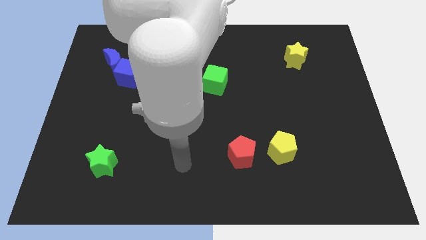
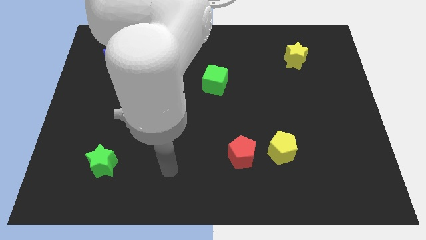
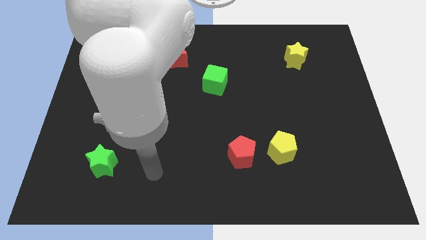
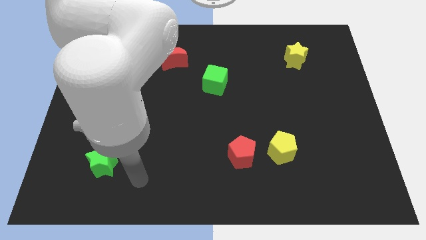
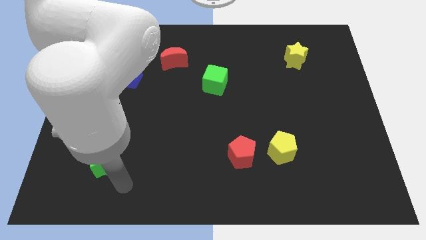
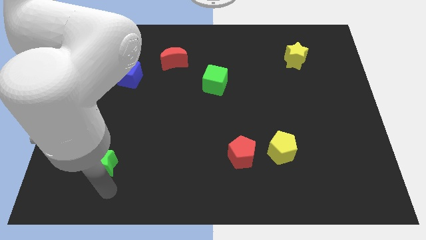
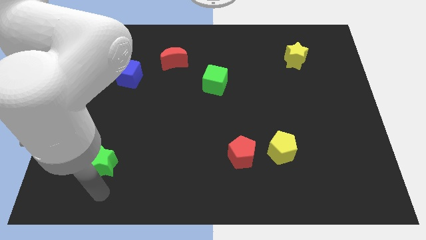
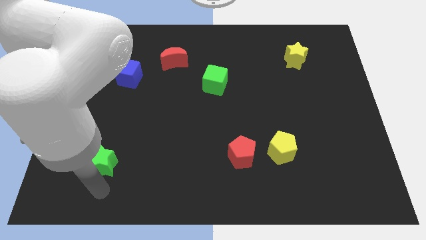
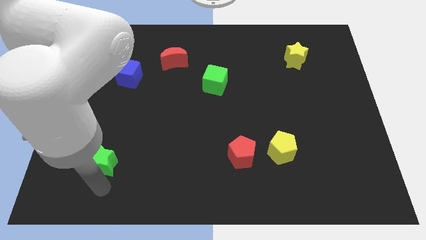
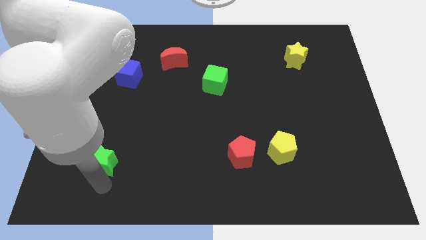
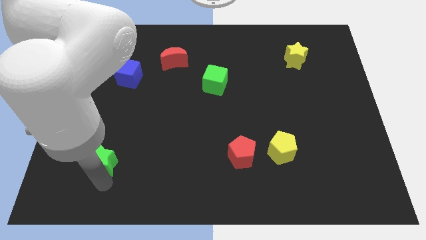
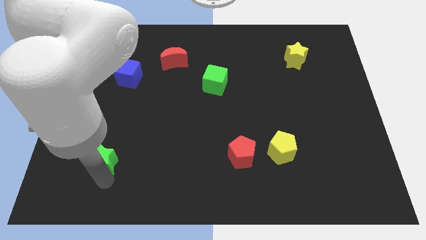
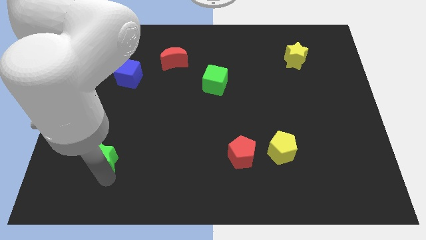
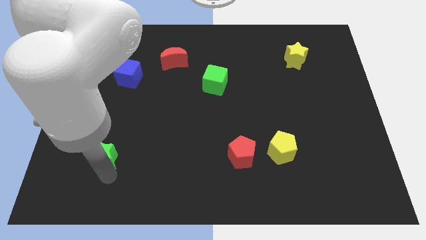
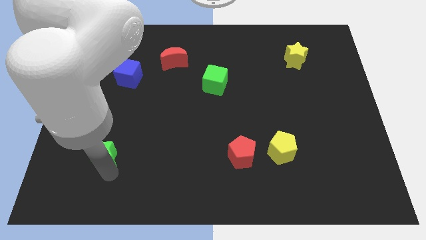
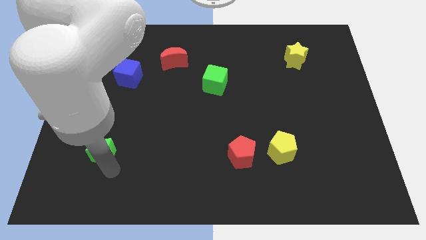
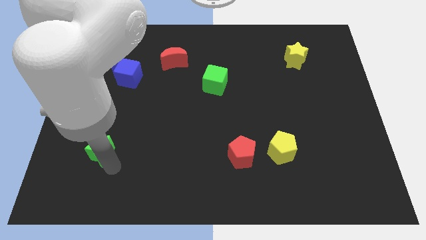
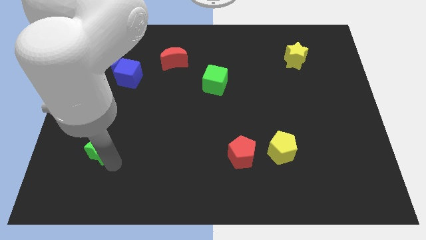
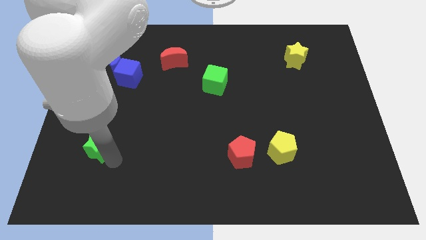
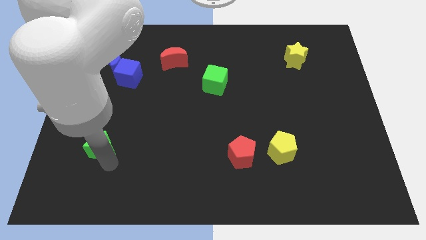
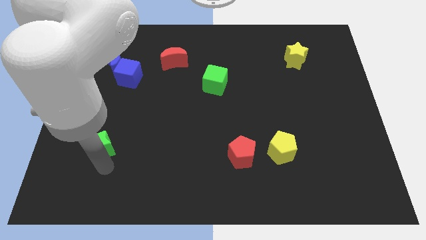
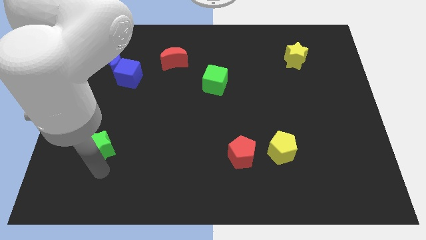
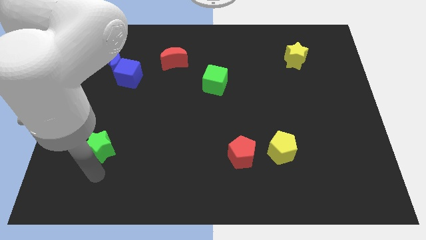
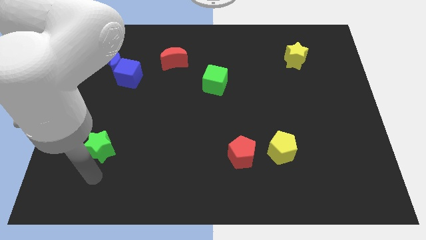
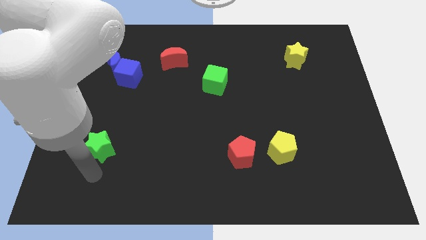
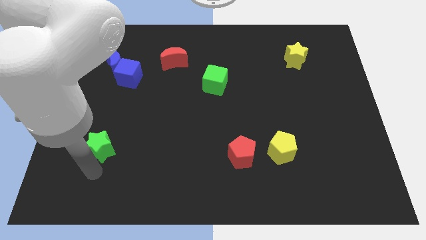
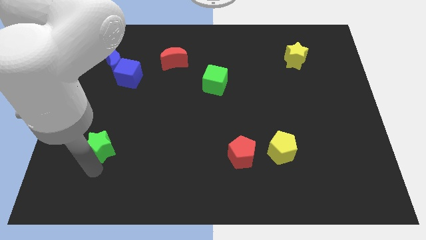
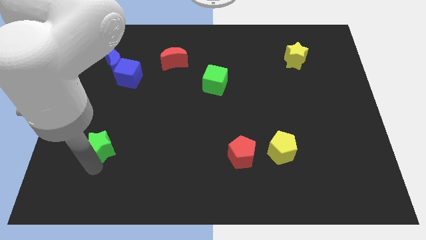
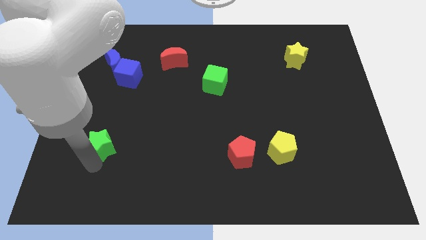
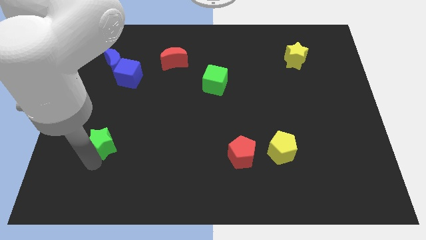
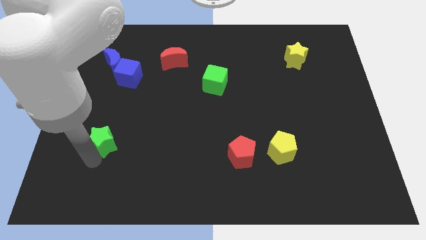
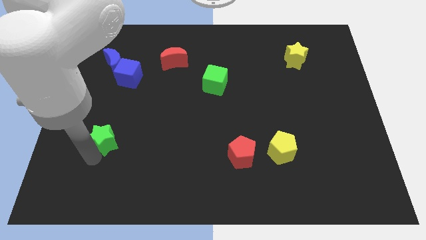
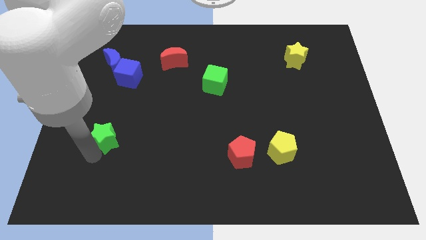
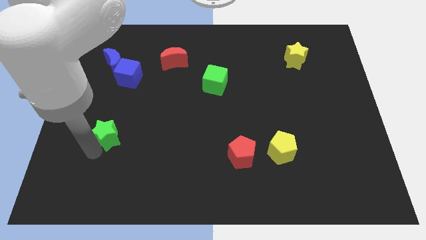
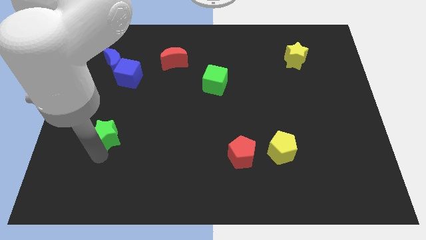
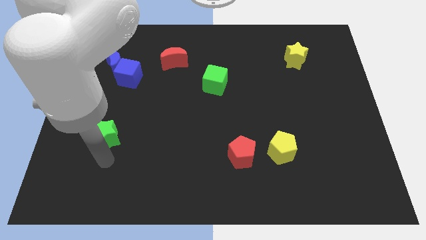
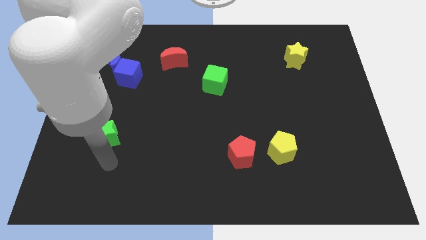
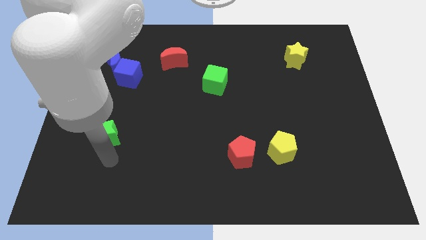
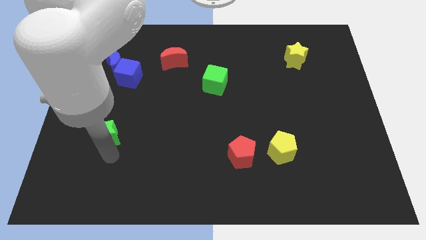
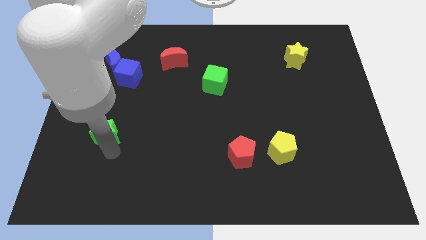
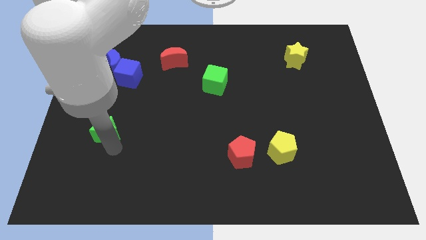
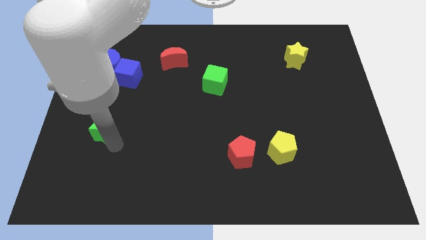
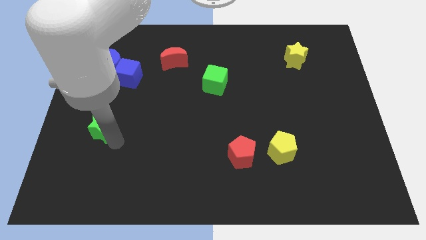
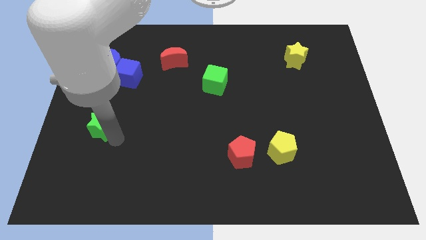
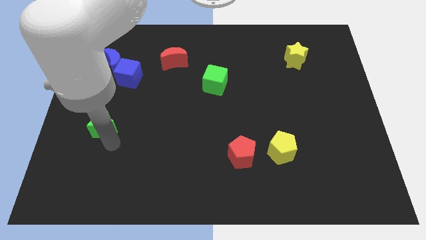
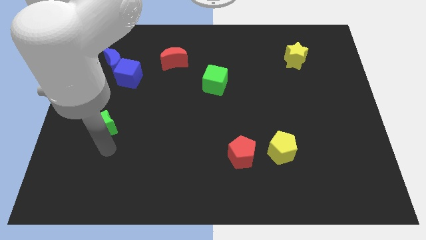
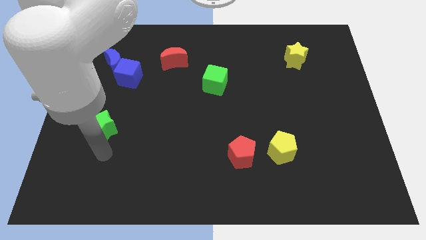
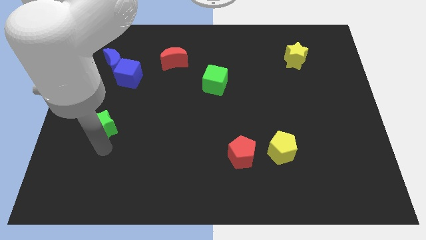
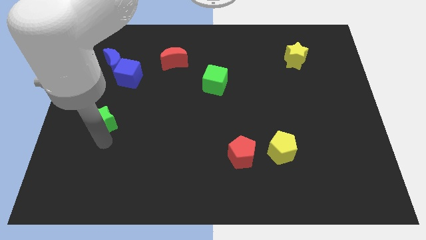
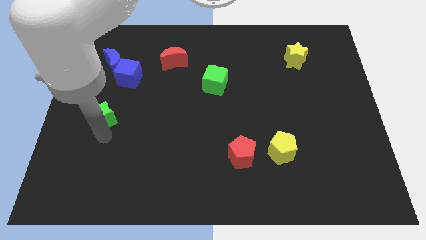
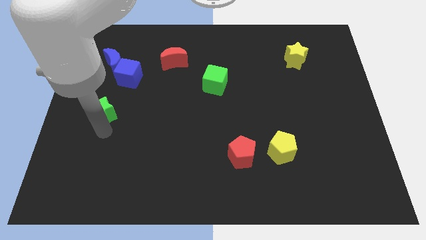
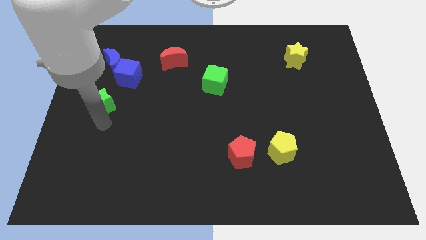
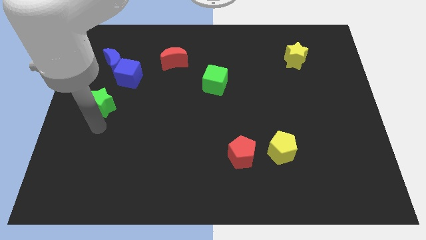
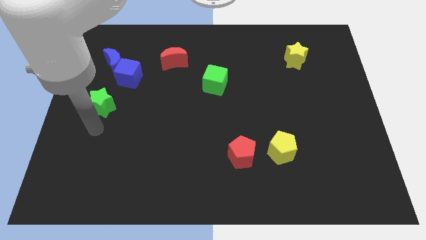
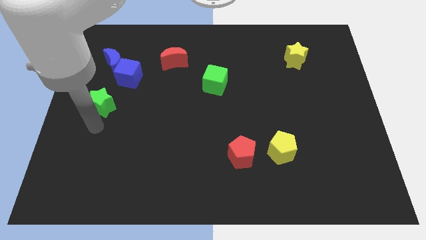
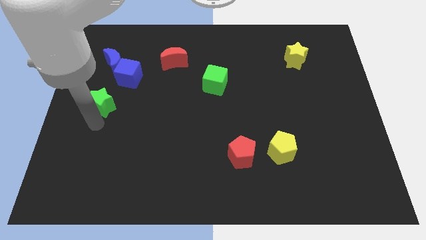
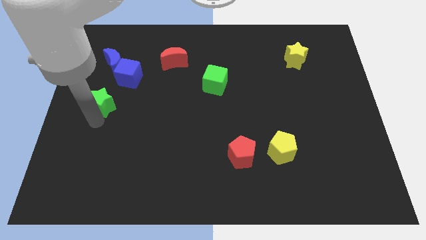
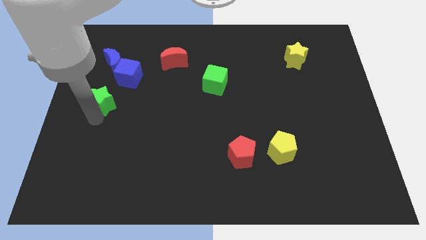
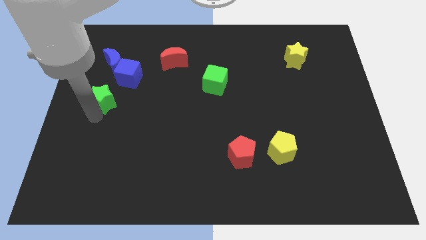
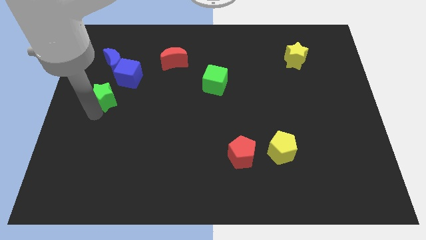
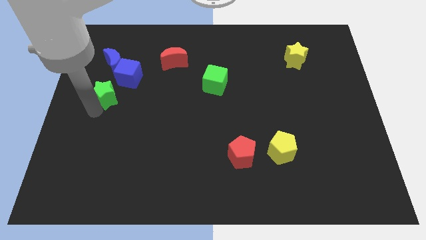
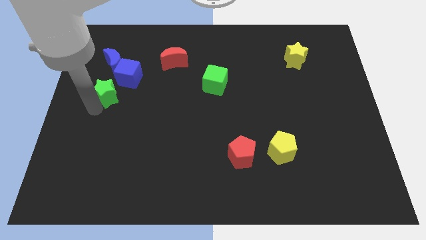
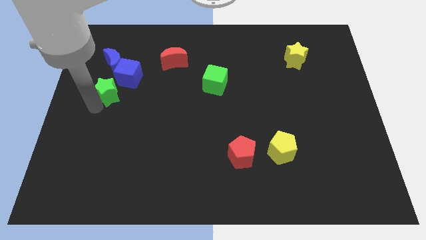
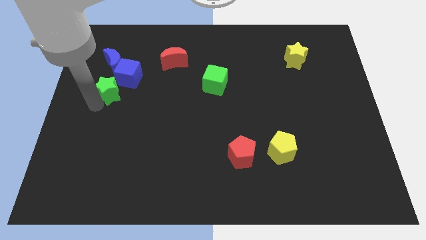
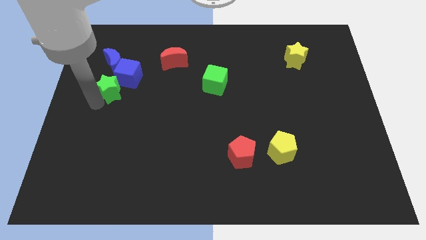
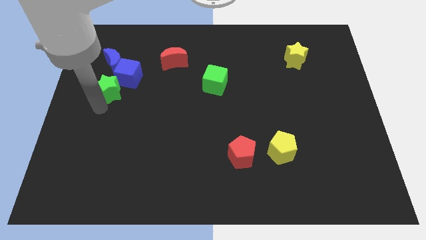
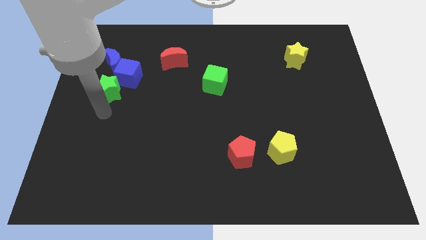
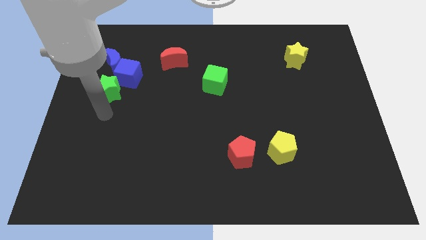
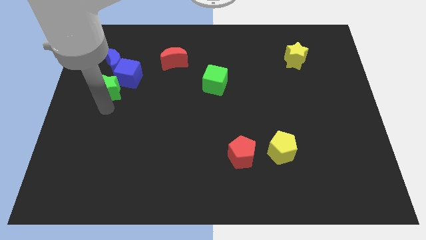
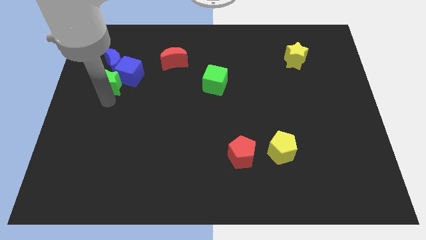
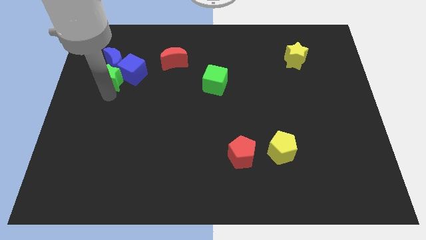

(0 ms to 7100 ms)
put the green star towards the blue moon
